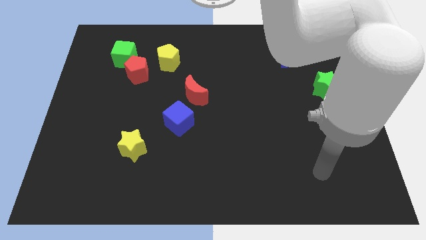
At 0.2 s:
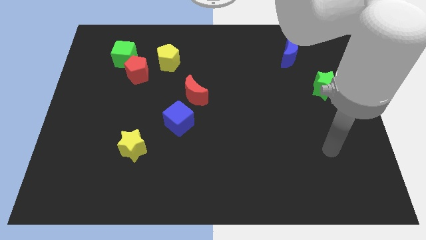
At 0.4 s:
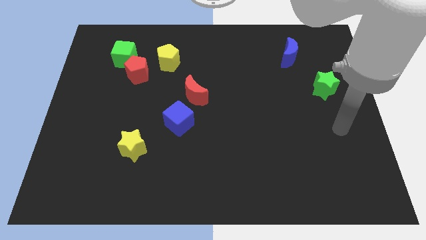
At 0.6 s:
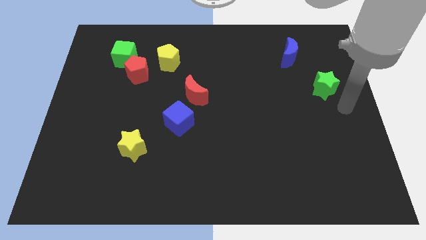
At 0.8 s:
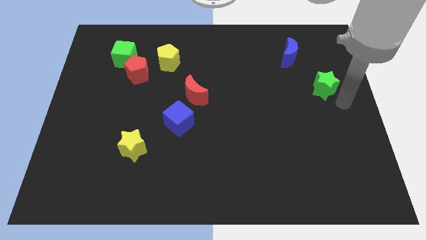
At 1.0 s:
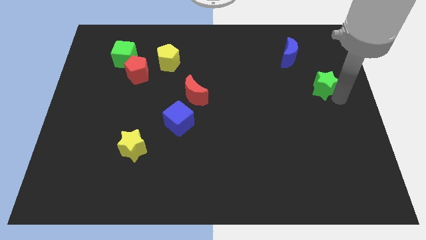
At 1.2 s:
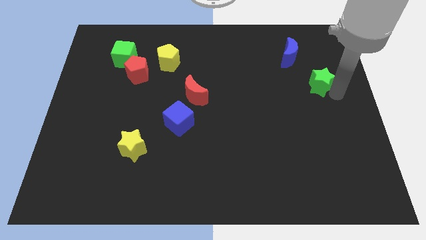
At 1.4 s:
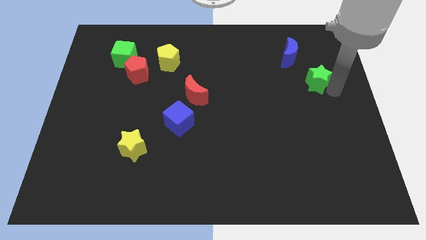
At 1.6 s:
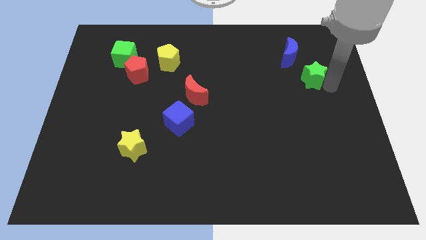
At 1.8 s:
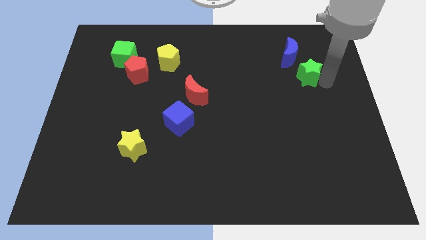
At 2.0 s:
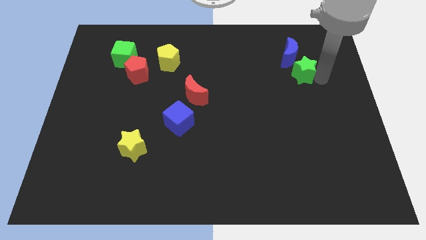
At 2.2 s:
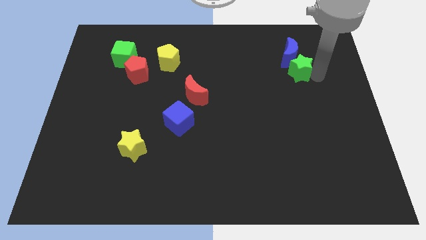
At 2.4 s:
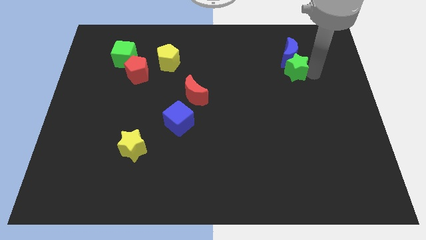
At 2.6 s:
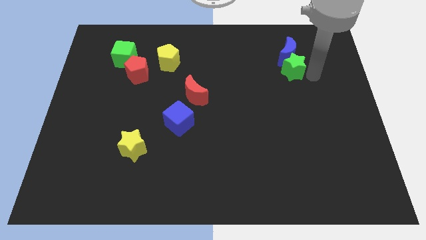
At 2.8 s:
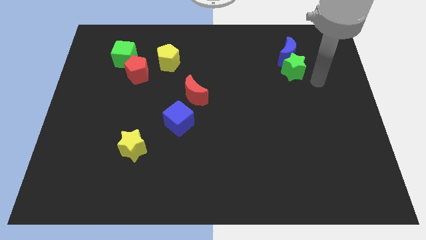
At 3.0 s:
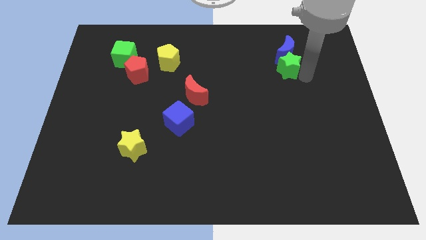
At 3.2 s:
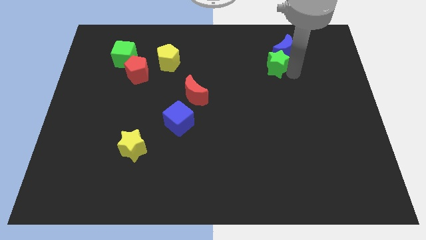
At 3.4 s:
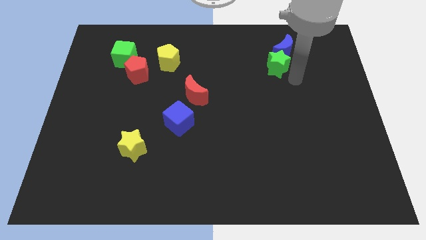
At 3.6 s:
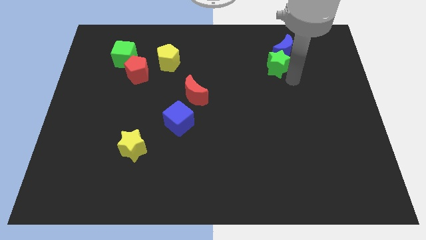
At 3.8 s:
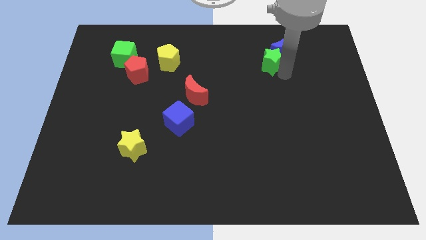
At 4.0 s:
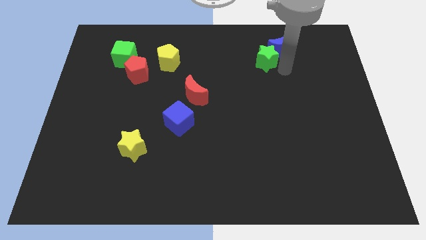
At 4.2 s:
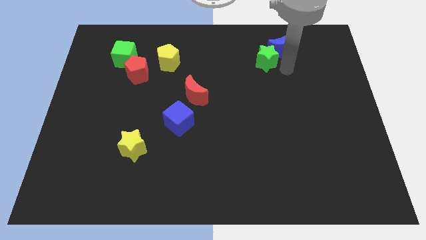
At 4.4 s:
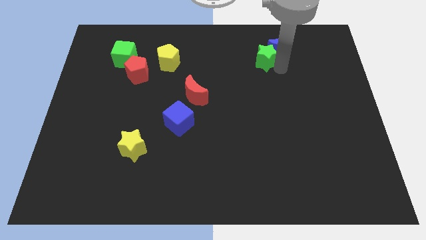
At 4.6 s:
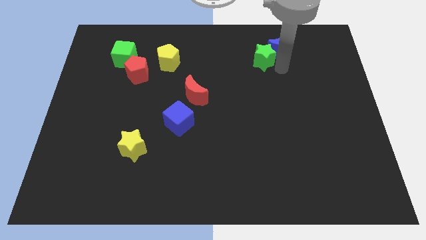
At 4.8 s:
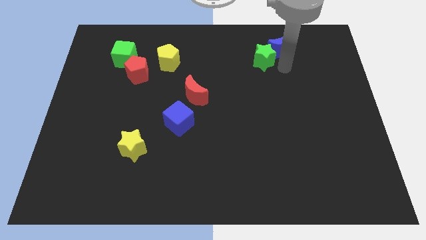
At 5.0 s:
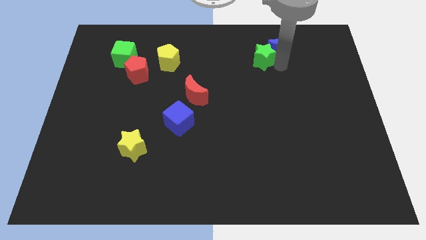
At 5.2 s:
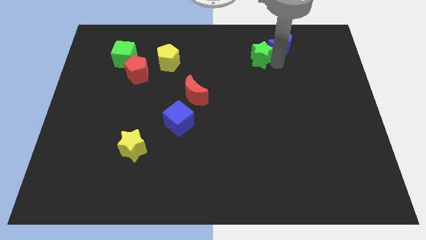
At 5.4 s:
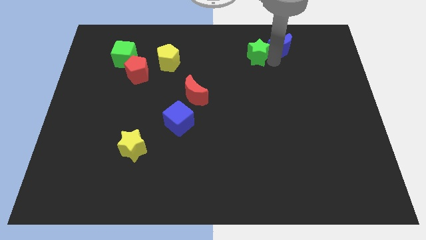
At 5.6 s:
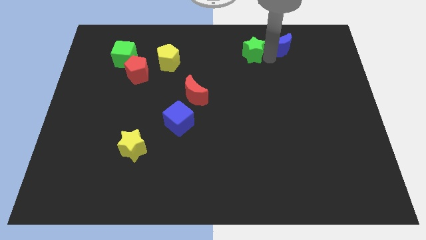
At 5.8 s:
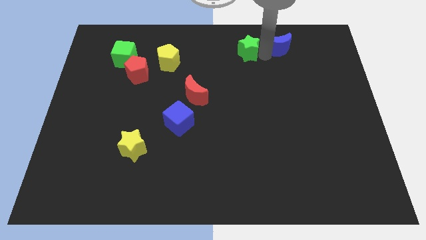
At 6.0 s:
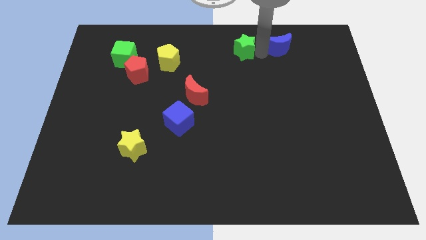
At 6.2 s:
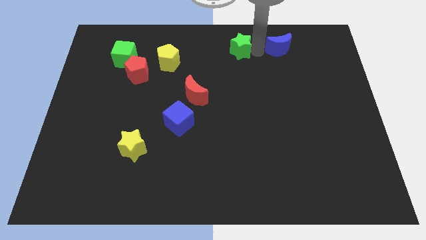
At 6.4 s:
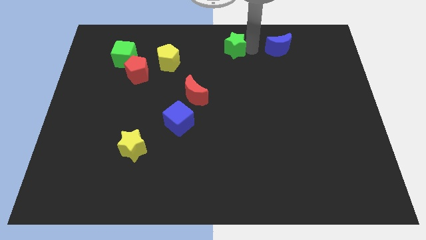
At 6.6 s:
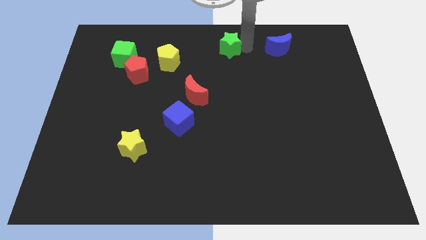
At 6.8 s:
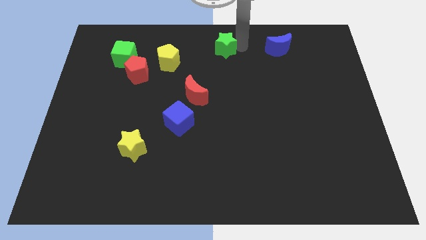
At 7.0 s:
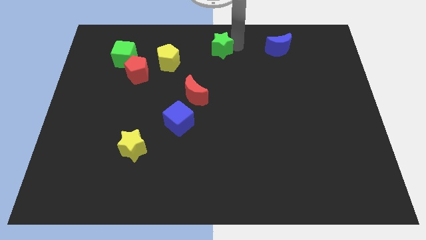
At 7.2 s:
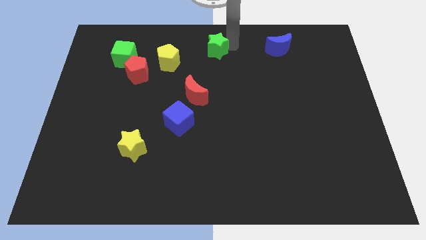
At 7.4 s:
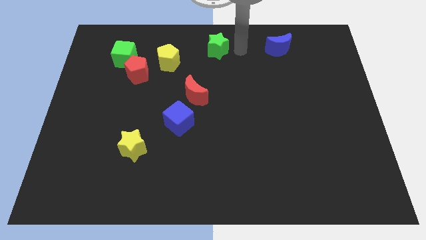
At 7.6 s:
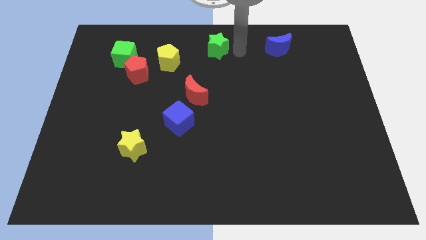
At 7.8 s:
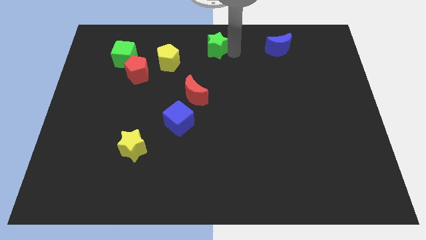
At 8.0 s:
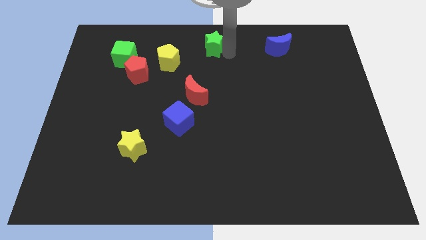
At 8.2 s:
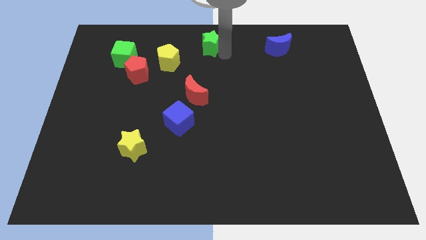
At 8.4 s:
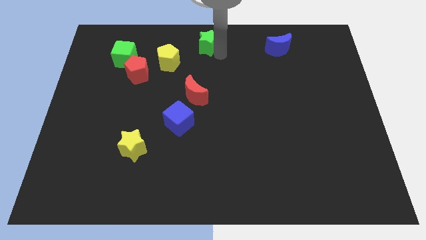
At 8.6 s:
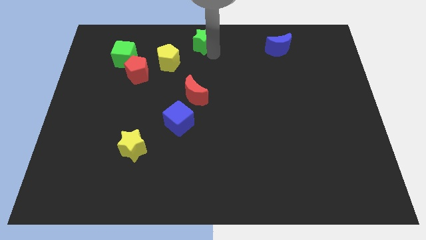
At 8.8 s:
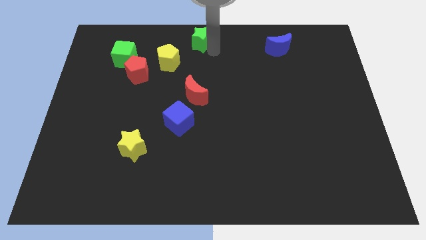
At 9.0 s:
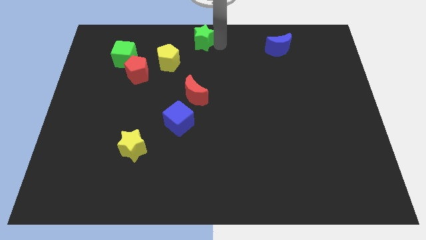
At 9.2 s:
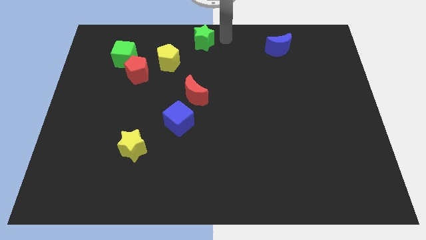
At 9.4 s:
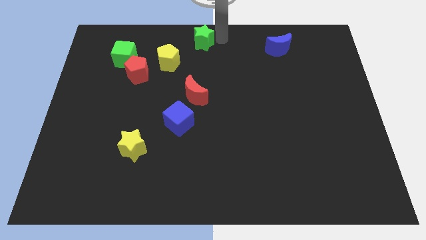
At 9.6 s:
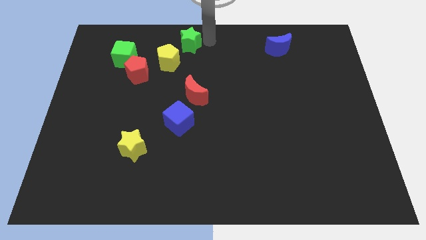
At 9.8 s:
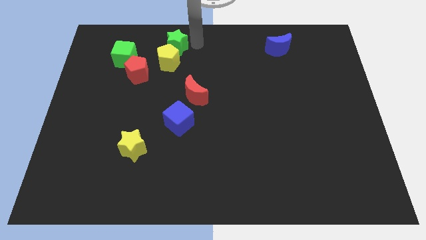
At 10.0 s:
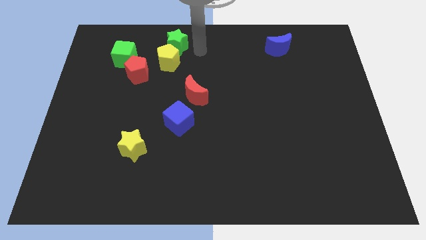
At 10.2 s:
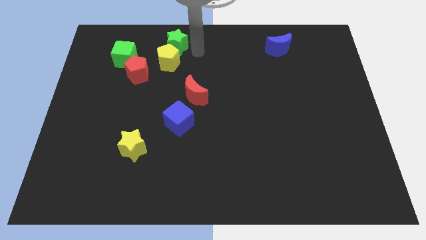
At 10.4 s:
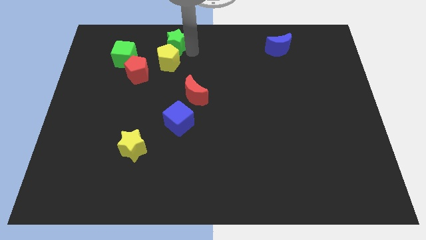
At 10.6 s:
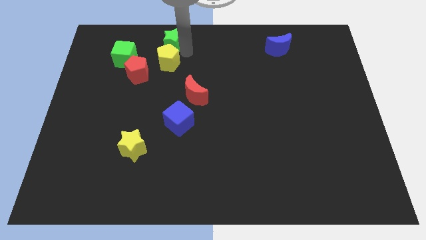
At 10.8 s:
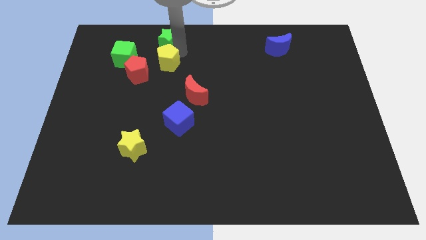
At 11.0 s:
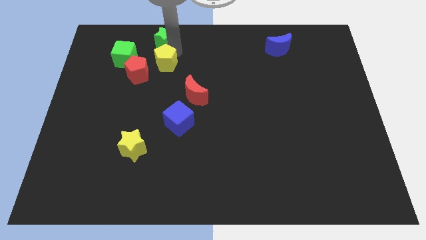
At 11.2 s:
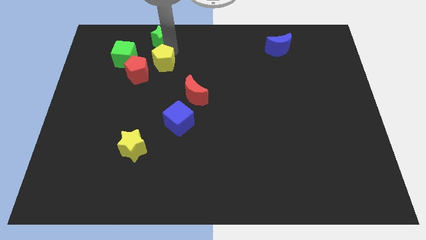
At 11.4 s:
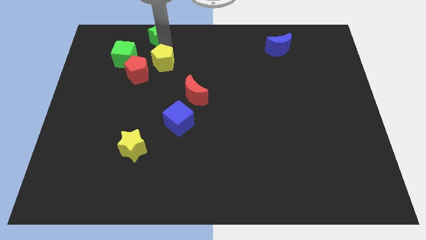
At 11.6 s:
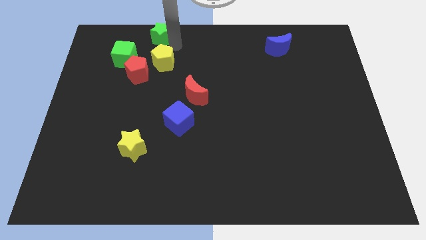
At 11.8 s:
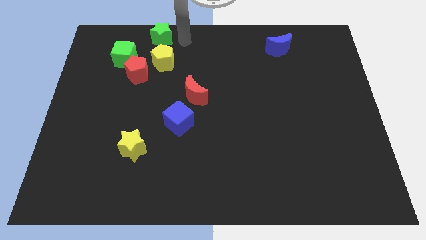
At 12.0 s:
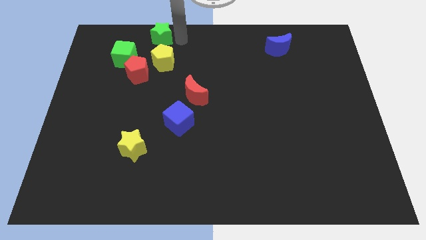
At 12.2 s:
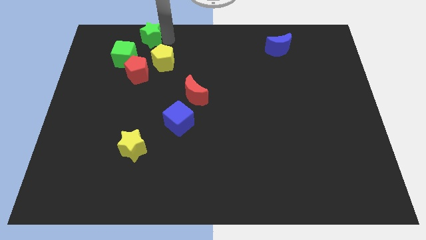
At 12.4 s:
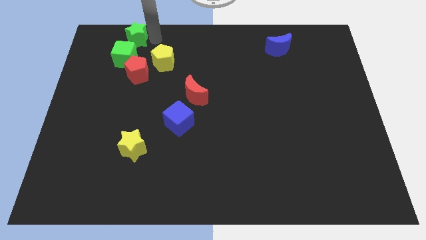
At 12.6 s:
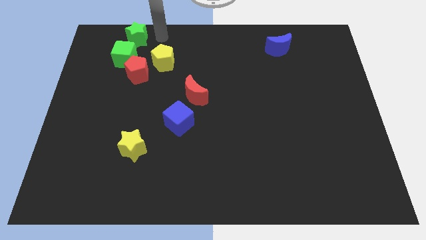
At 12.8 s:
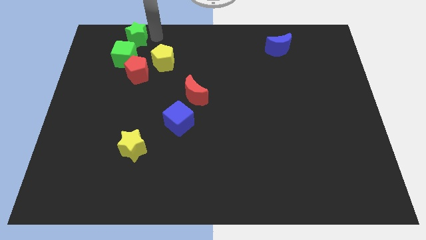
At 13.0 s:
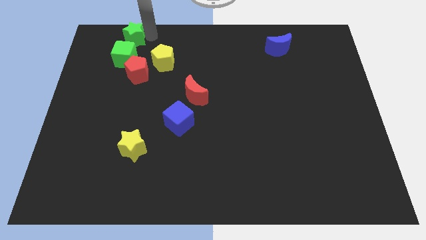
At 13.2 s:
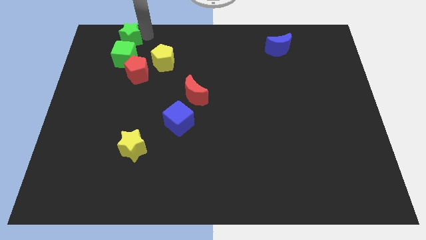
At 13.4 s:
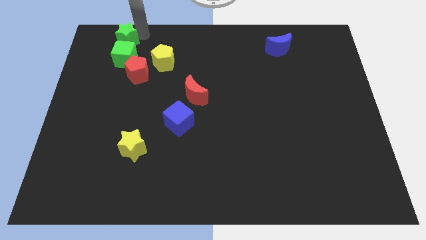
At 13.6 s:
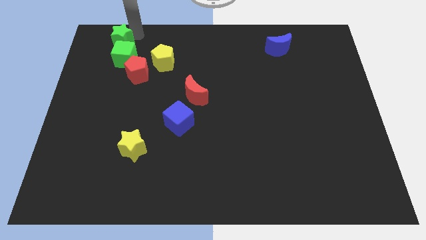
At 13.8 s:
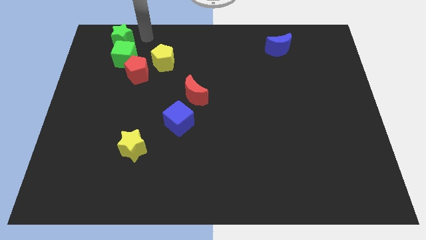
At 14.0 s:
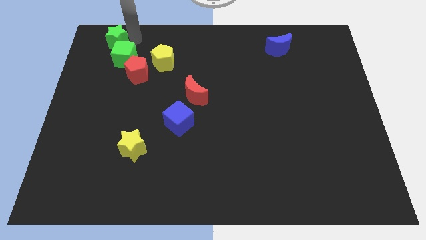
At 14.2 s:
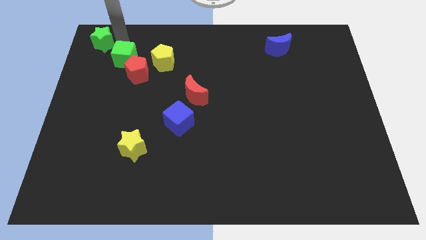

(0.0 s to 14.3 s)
slide the green star to the top left of the board
